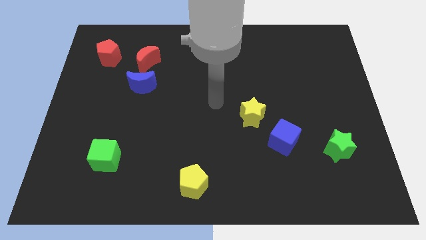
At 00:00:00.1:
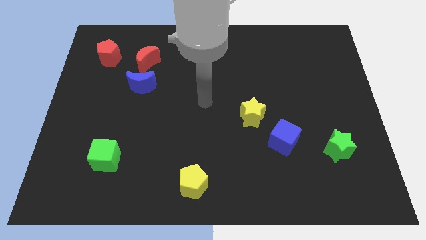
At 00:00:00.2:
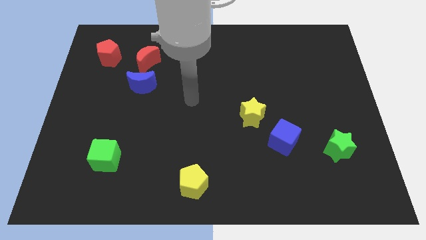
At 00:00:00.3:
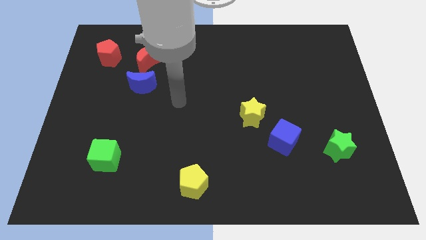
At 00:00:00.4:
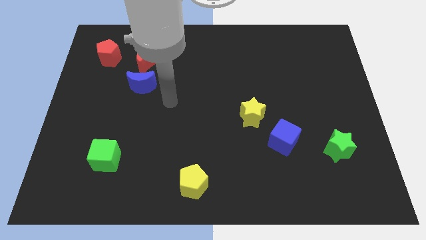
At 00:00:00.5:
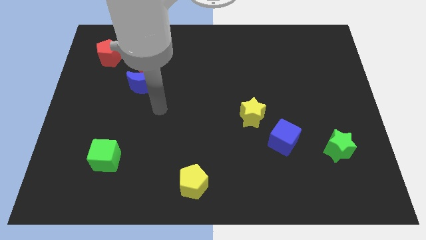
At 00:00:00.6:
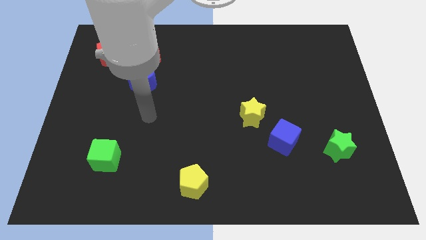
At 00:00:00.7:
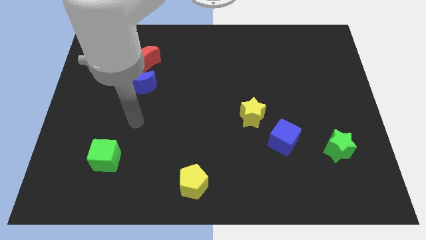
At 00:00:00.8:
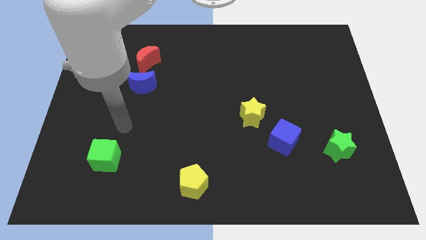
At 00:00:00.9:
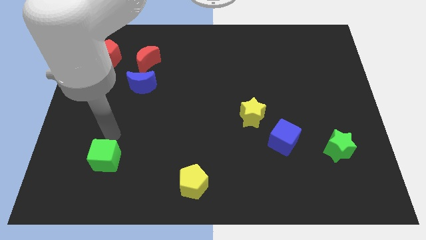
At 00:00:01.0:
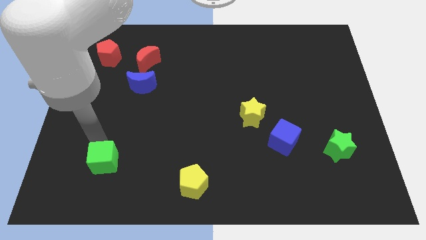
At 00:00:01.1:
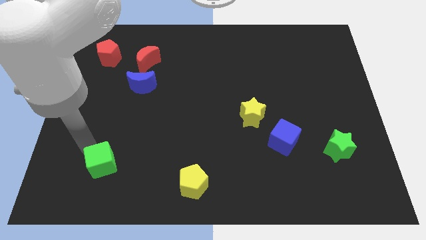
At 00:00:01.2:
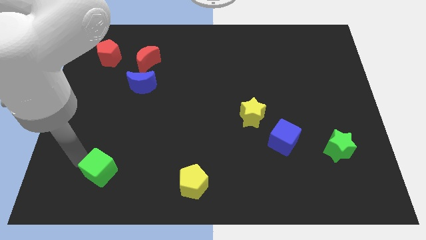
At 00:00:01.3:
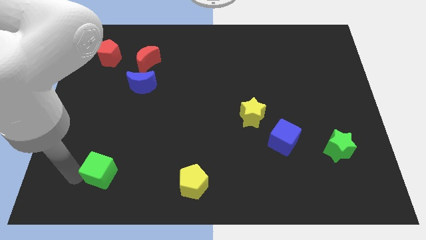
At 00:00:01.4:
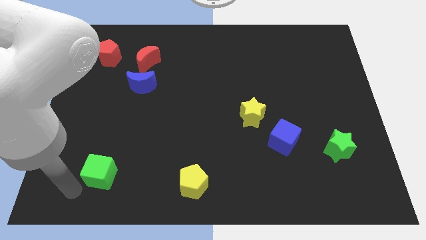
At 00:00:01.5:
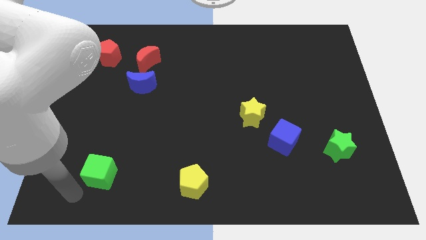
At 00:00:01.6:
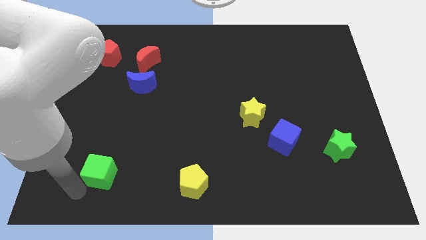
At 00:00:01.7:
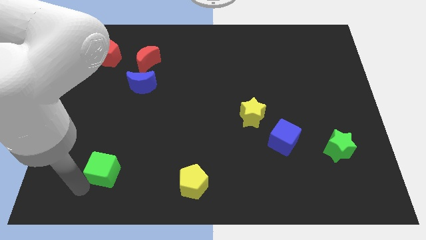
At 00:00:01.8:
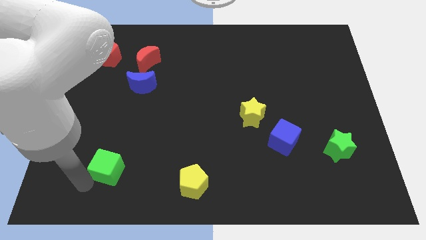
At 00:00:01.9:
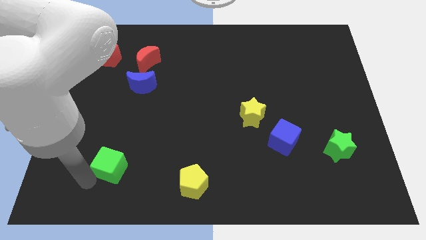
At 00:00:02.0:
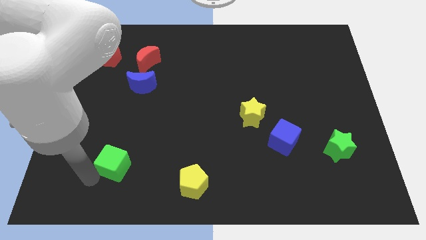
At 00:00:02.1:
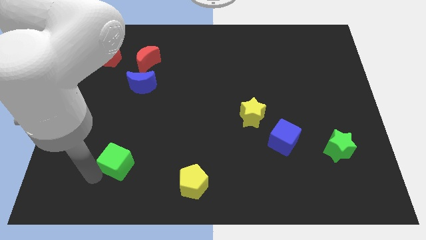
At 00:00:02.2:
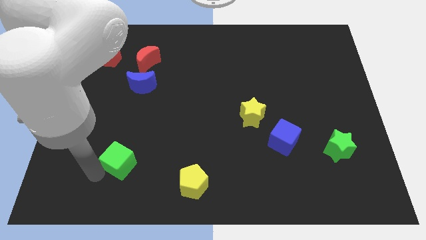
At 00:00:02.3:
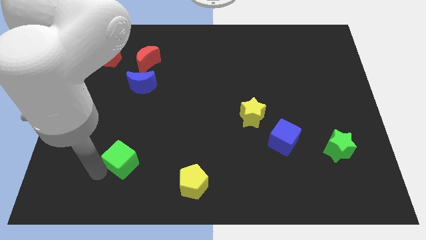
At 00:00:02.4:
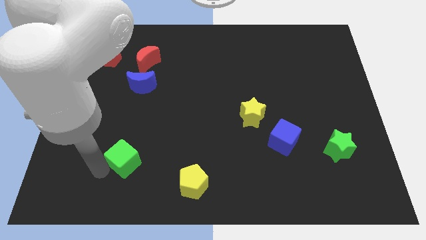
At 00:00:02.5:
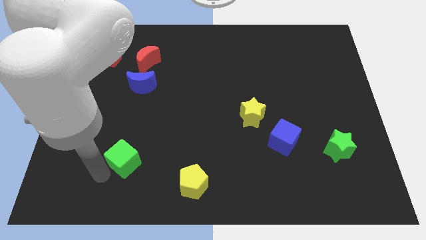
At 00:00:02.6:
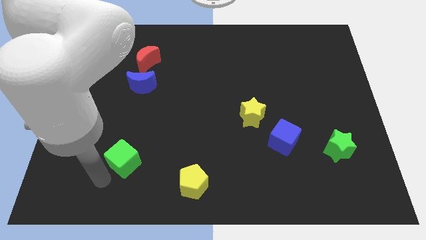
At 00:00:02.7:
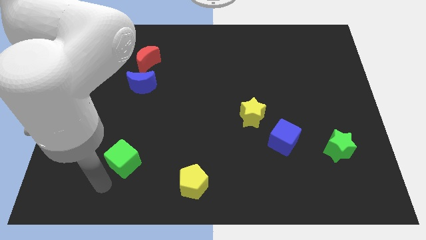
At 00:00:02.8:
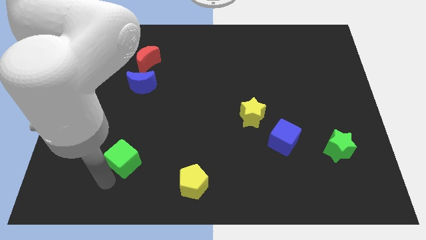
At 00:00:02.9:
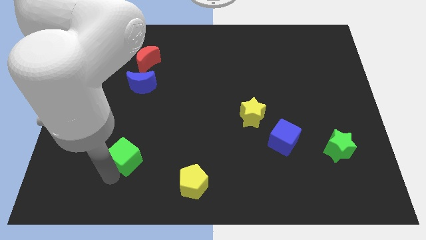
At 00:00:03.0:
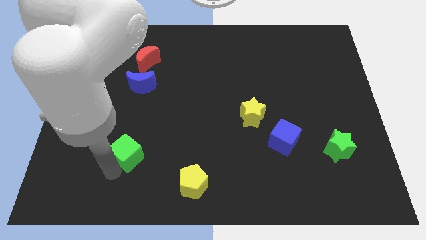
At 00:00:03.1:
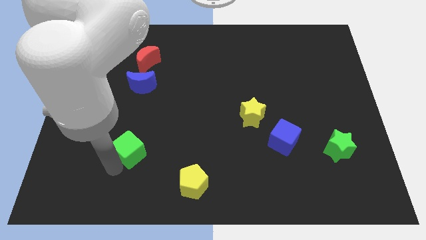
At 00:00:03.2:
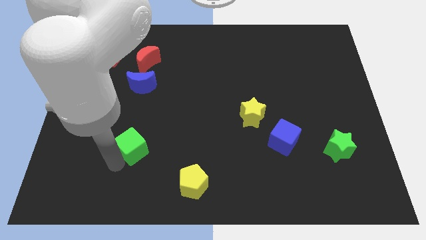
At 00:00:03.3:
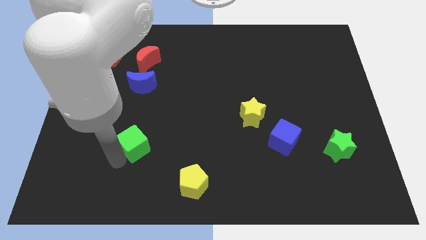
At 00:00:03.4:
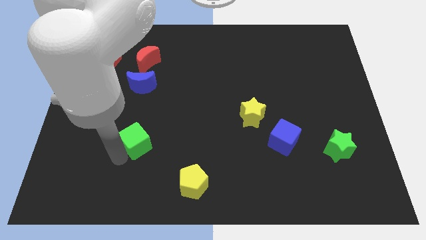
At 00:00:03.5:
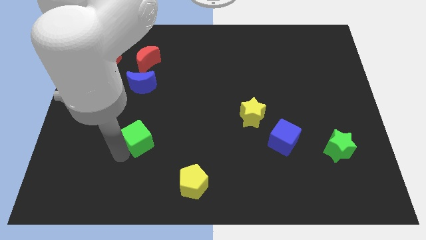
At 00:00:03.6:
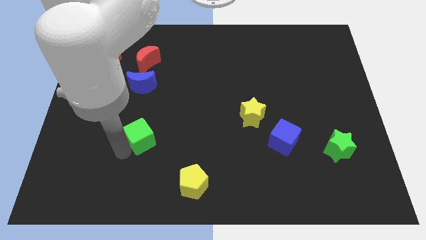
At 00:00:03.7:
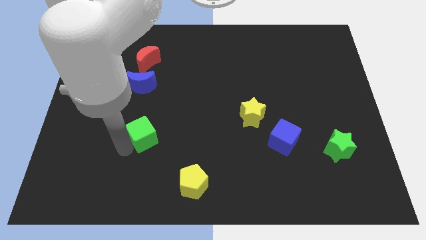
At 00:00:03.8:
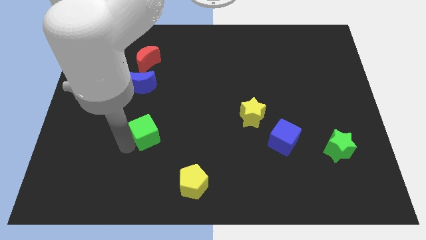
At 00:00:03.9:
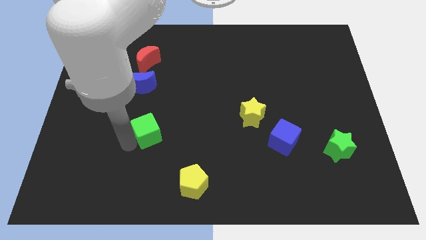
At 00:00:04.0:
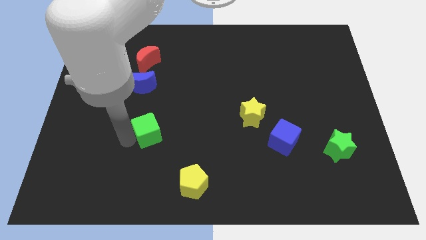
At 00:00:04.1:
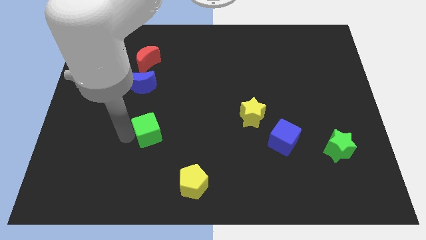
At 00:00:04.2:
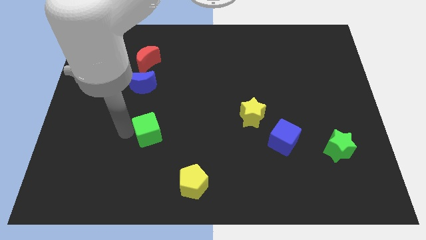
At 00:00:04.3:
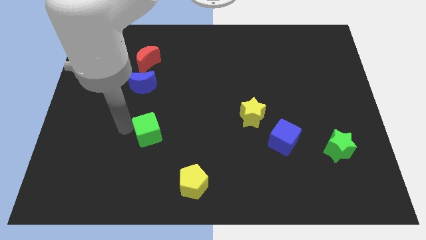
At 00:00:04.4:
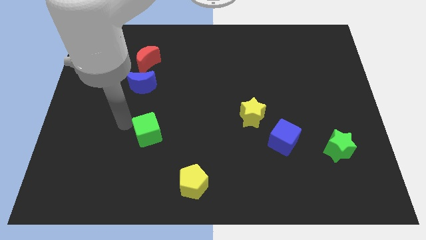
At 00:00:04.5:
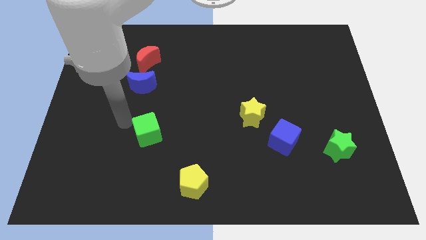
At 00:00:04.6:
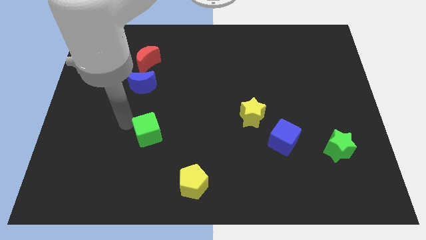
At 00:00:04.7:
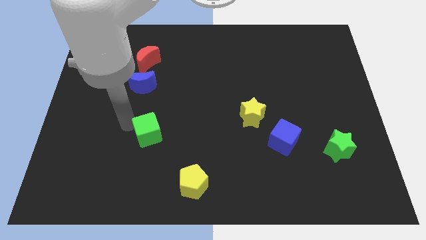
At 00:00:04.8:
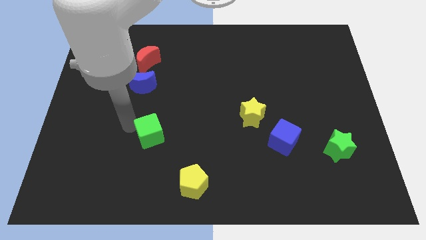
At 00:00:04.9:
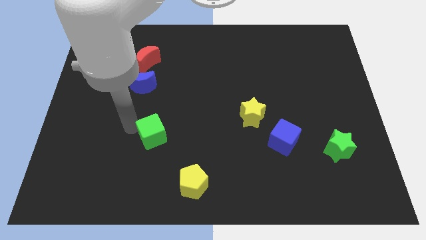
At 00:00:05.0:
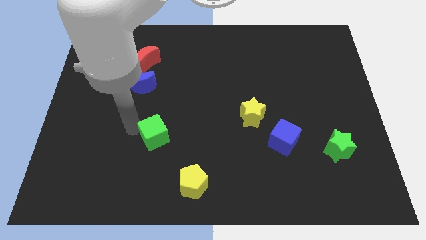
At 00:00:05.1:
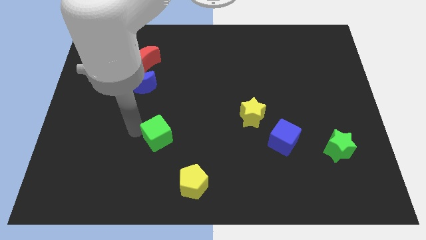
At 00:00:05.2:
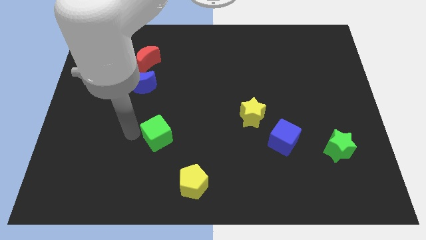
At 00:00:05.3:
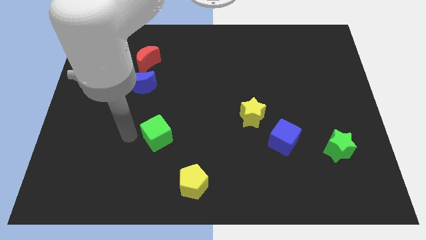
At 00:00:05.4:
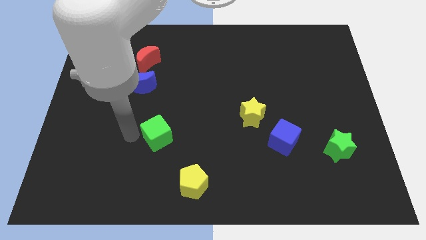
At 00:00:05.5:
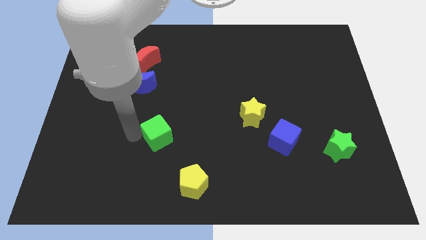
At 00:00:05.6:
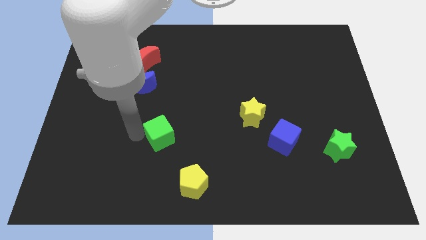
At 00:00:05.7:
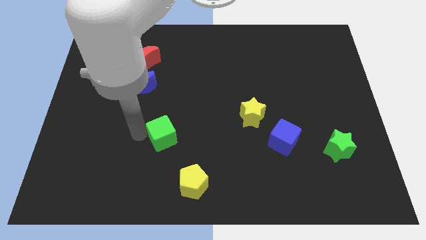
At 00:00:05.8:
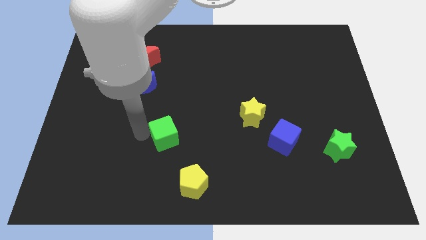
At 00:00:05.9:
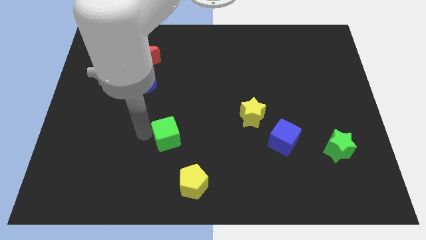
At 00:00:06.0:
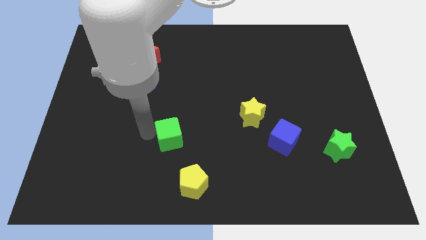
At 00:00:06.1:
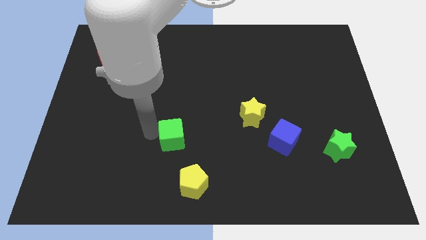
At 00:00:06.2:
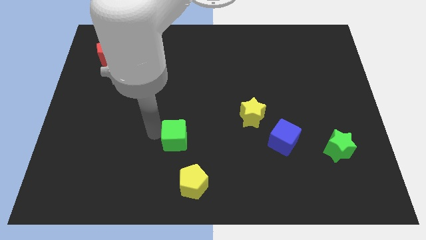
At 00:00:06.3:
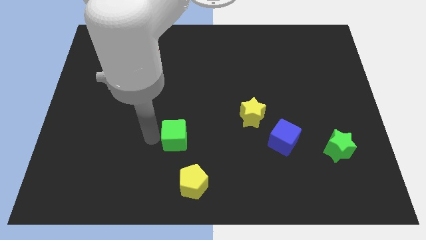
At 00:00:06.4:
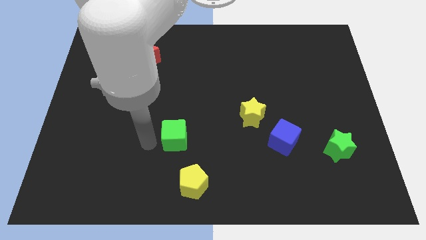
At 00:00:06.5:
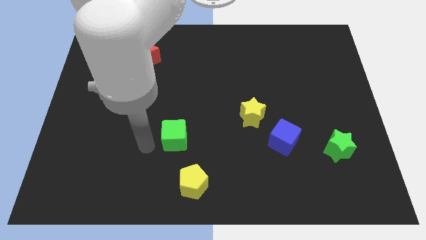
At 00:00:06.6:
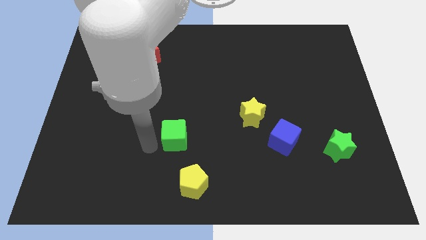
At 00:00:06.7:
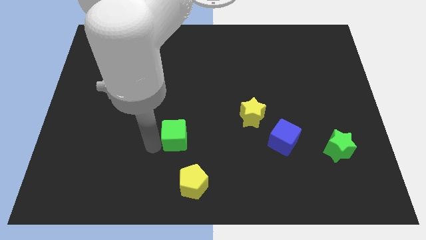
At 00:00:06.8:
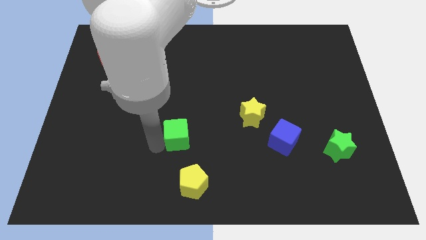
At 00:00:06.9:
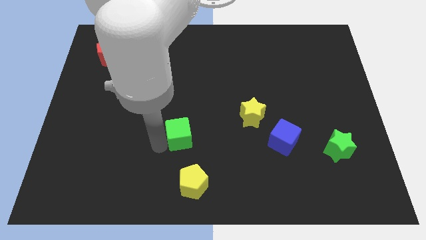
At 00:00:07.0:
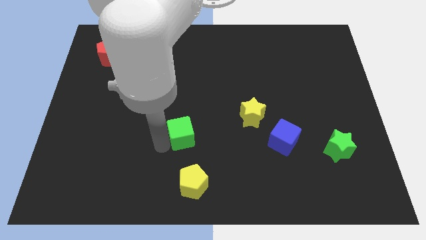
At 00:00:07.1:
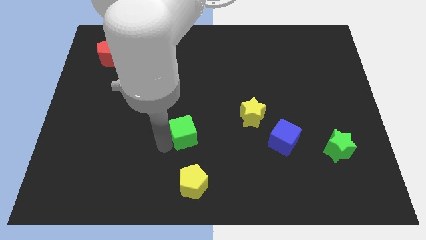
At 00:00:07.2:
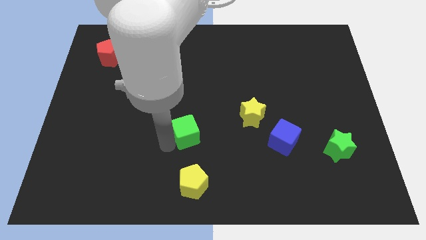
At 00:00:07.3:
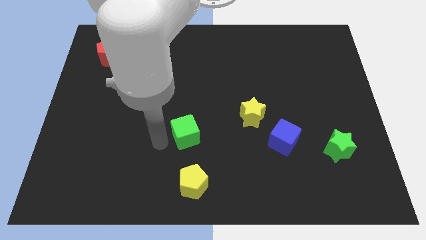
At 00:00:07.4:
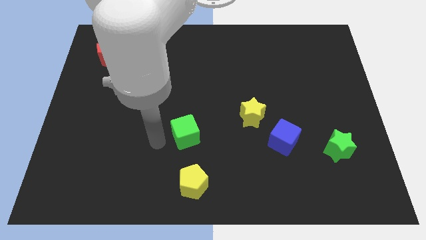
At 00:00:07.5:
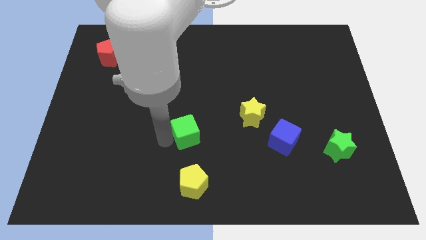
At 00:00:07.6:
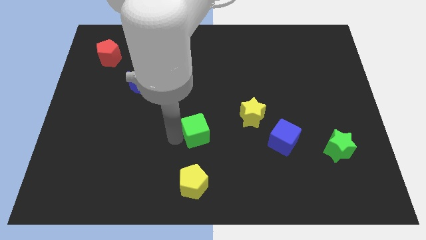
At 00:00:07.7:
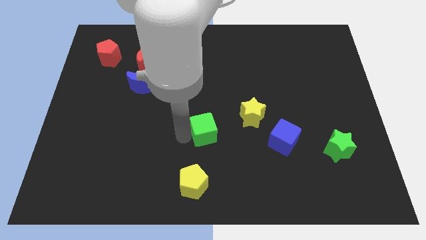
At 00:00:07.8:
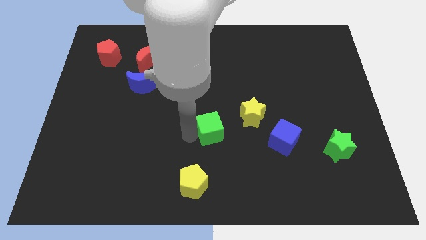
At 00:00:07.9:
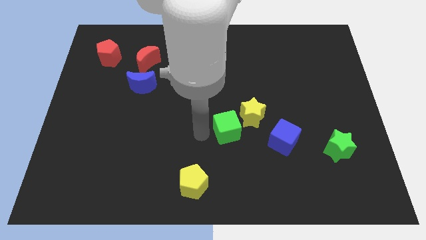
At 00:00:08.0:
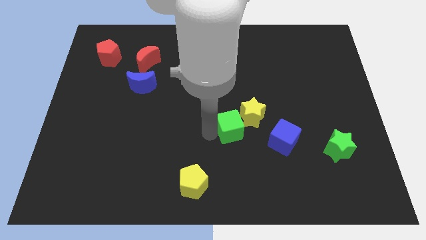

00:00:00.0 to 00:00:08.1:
slide the green cube towards the yellow star
